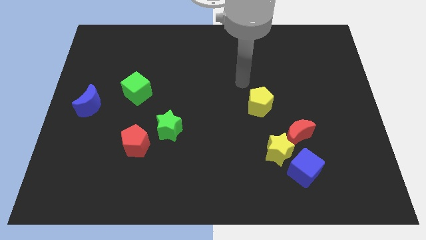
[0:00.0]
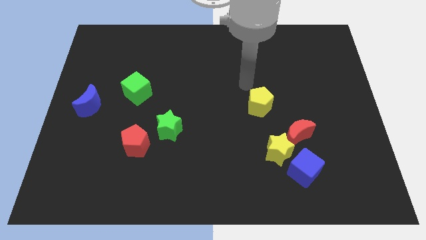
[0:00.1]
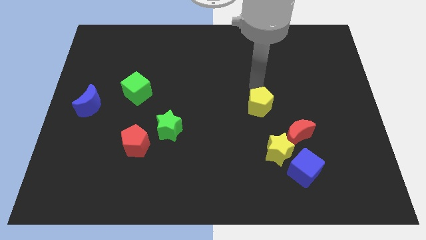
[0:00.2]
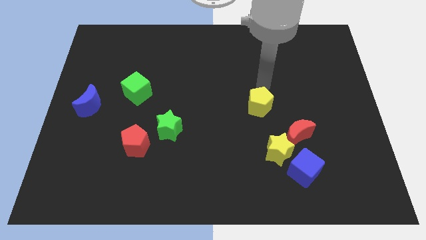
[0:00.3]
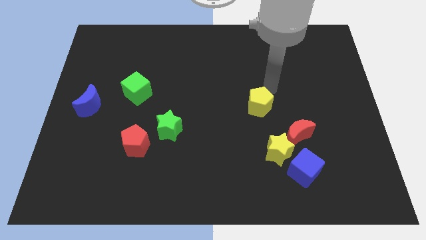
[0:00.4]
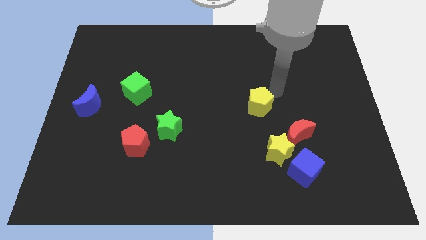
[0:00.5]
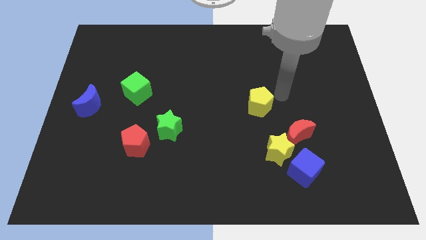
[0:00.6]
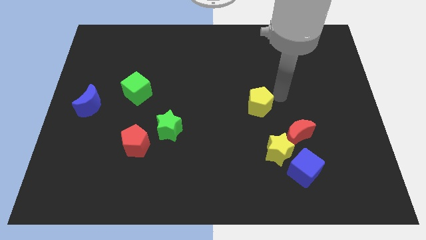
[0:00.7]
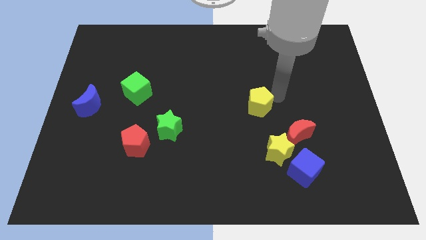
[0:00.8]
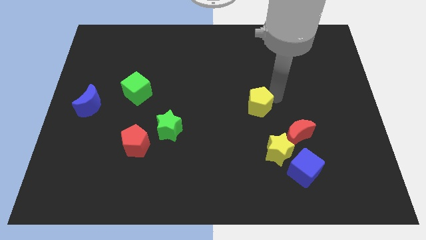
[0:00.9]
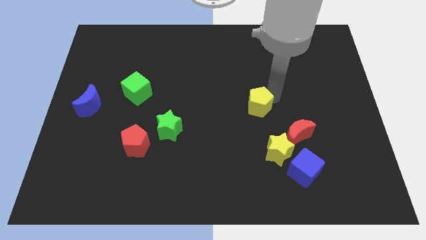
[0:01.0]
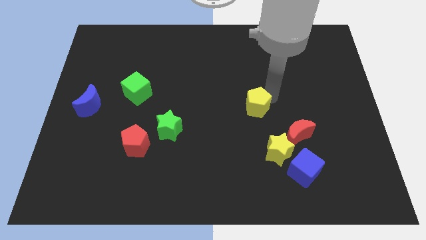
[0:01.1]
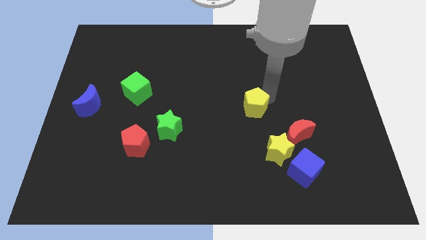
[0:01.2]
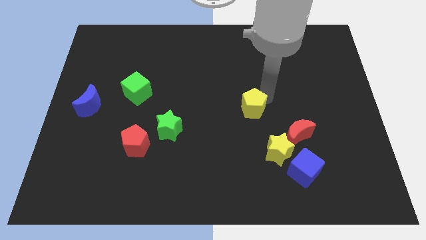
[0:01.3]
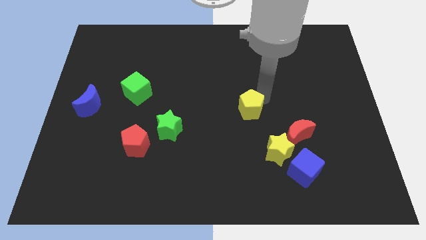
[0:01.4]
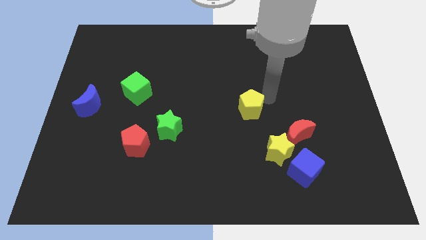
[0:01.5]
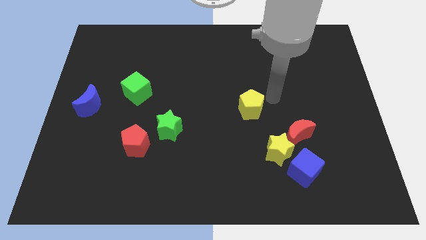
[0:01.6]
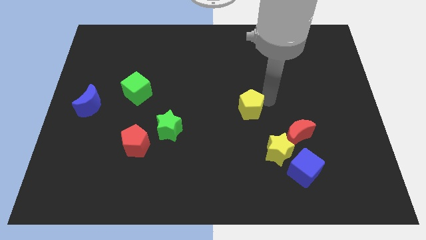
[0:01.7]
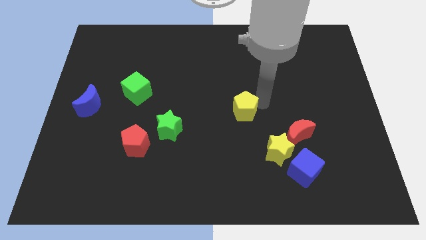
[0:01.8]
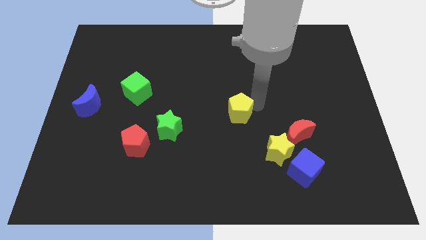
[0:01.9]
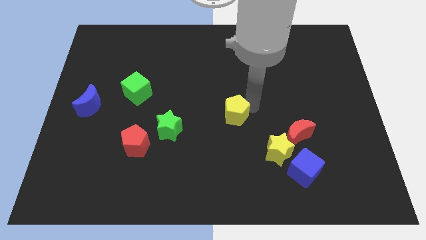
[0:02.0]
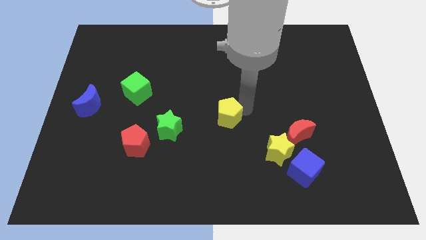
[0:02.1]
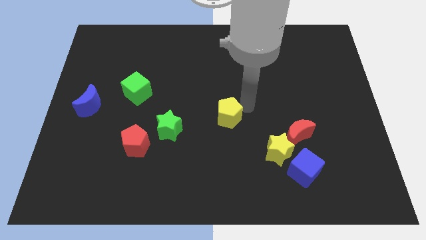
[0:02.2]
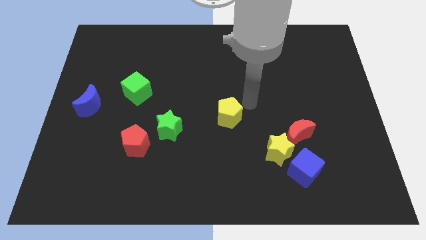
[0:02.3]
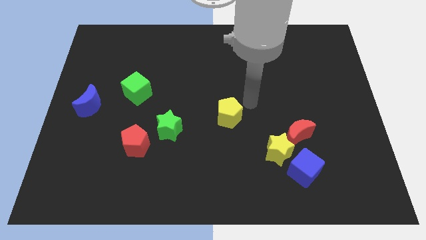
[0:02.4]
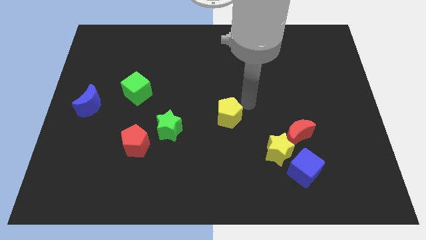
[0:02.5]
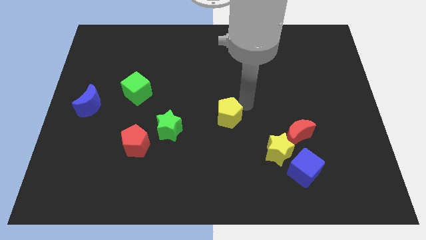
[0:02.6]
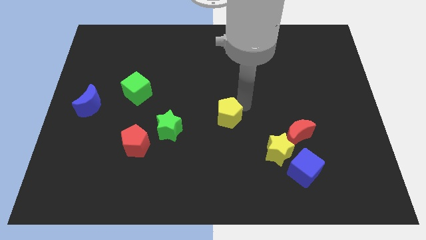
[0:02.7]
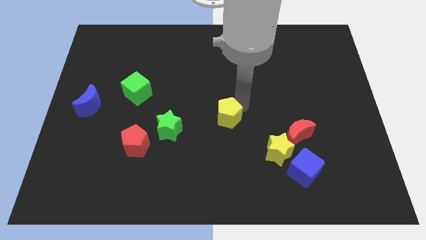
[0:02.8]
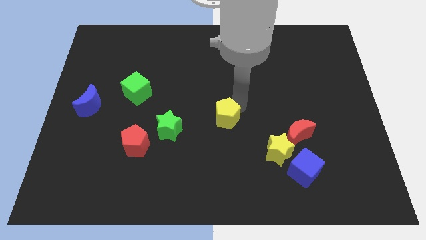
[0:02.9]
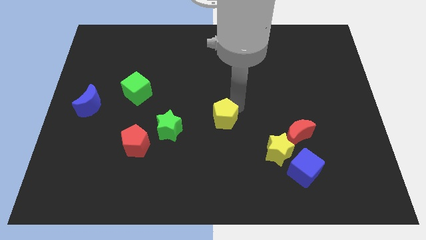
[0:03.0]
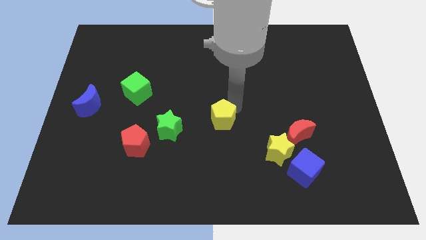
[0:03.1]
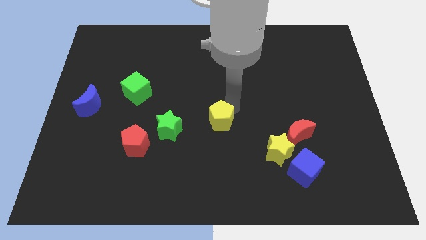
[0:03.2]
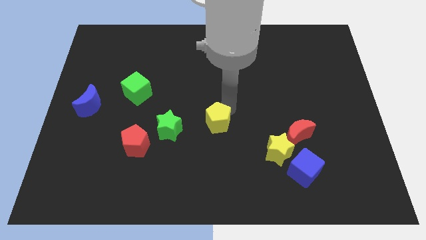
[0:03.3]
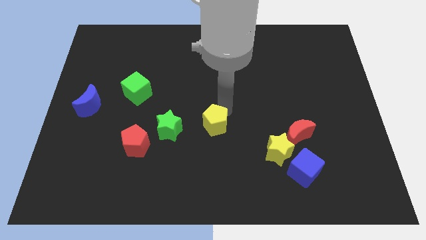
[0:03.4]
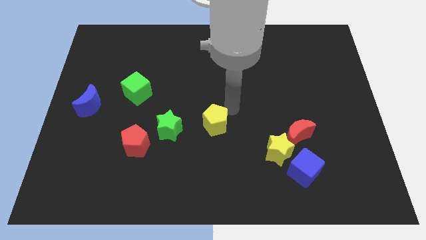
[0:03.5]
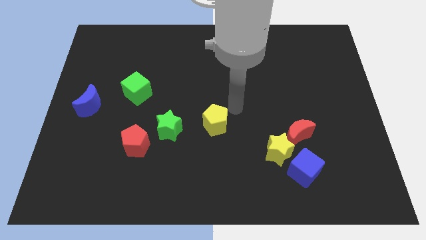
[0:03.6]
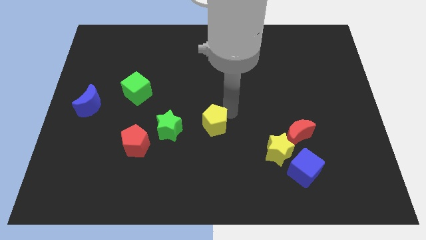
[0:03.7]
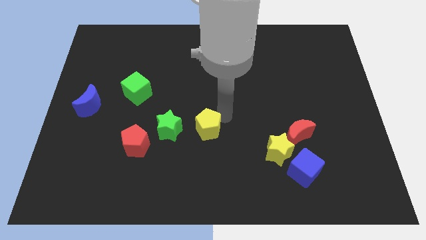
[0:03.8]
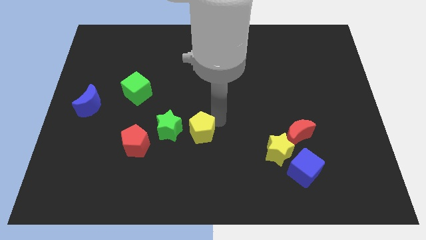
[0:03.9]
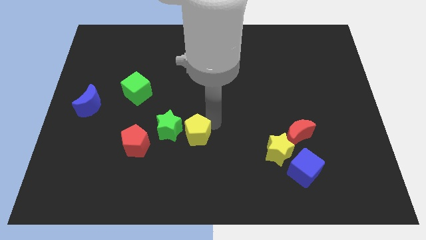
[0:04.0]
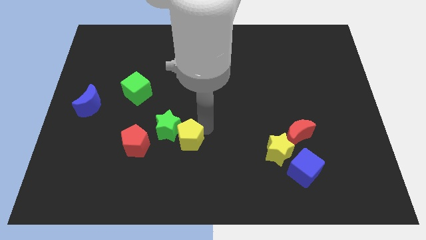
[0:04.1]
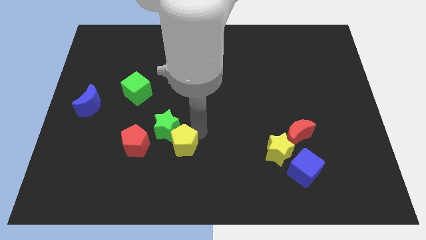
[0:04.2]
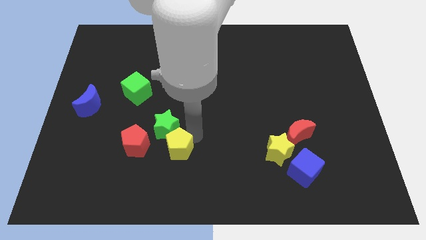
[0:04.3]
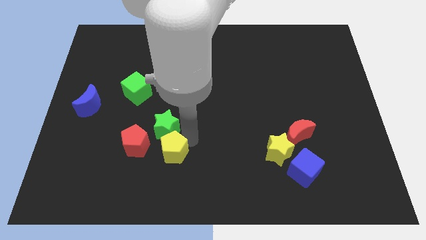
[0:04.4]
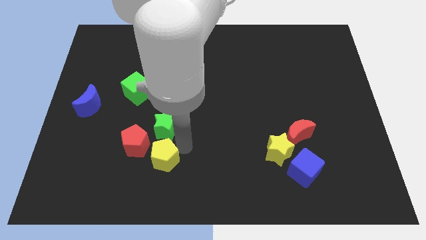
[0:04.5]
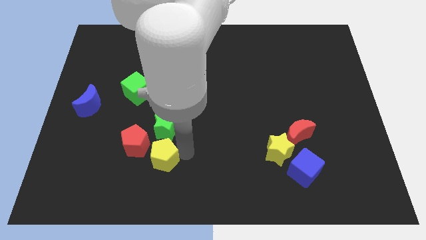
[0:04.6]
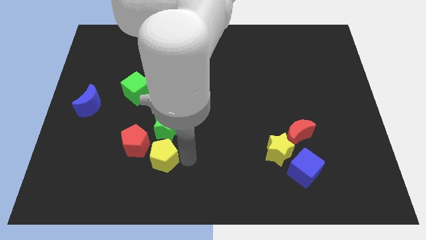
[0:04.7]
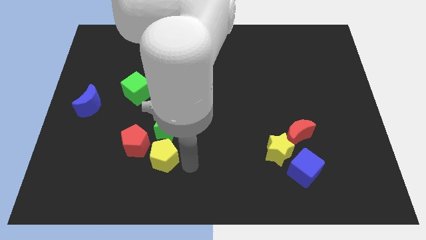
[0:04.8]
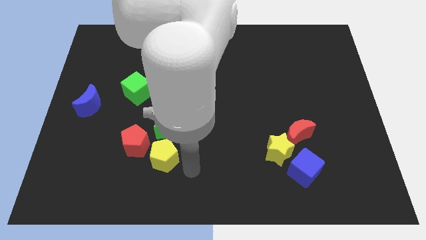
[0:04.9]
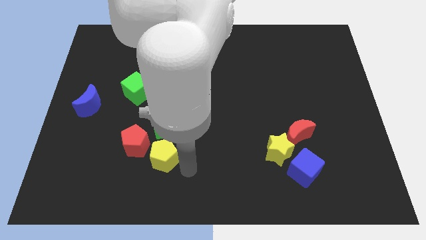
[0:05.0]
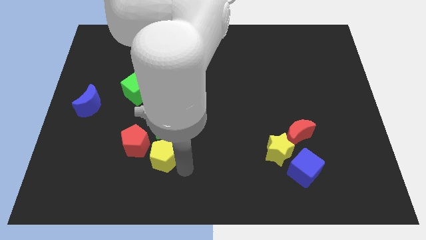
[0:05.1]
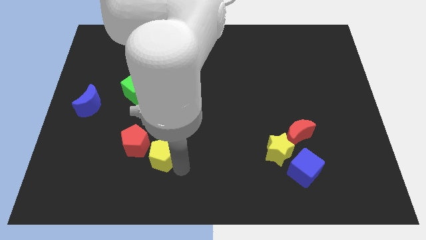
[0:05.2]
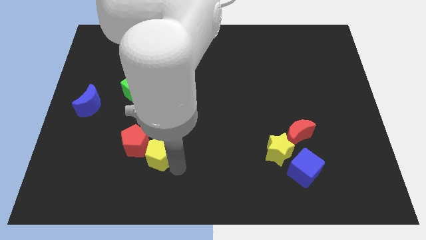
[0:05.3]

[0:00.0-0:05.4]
move the yellow pentagon to the red pentagon

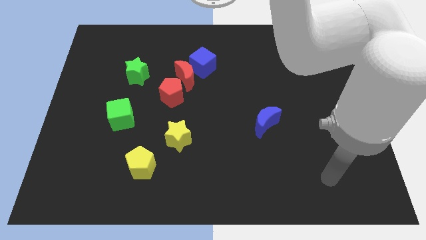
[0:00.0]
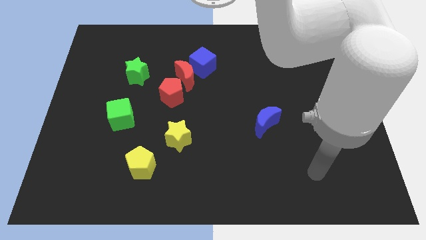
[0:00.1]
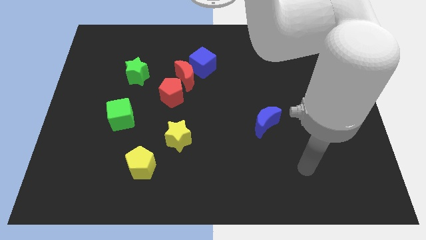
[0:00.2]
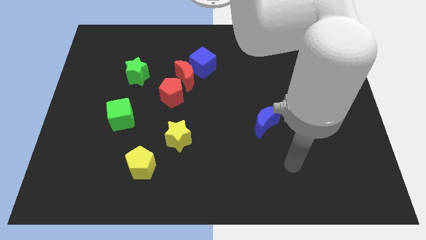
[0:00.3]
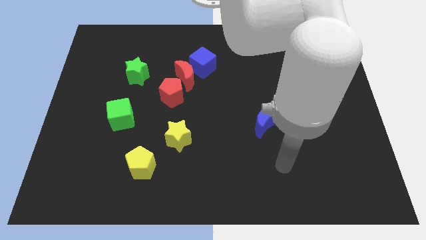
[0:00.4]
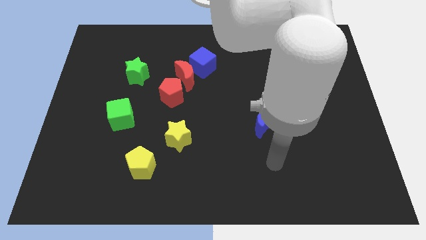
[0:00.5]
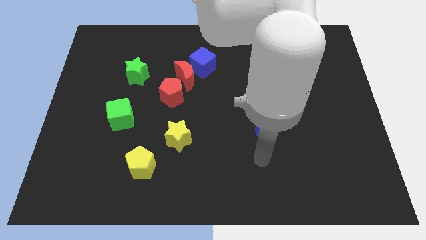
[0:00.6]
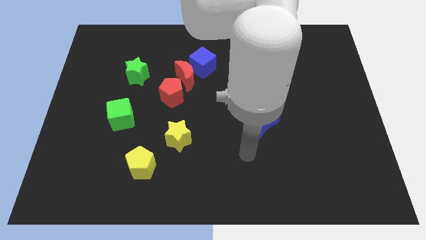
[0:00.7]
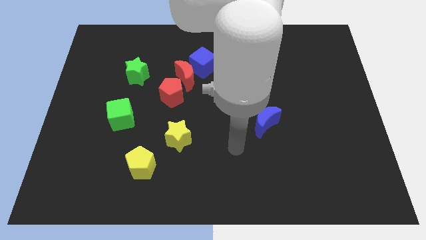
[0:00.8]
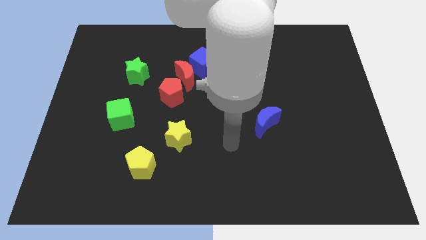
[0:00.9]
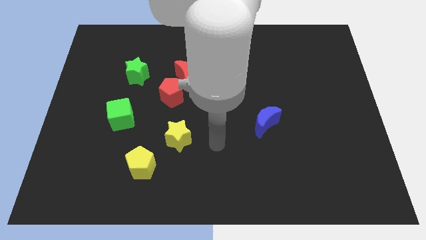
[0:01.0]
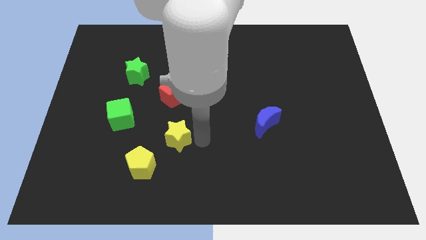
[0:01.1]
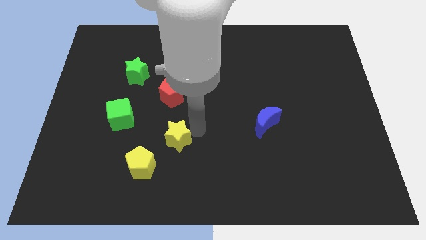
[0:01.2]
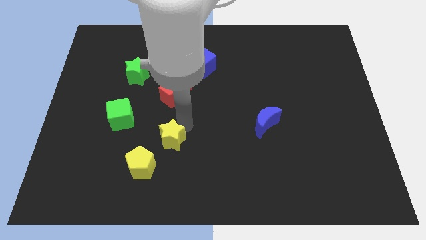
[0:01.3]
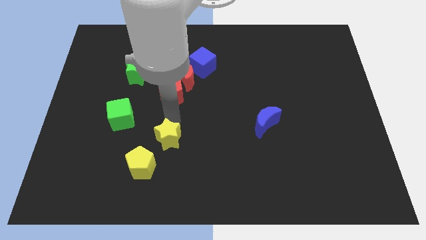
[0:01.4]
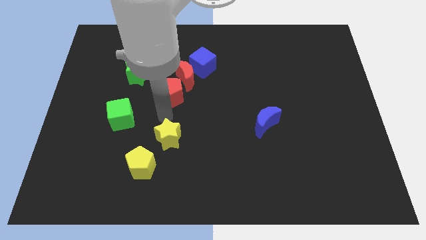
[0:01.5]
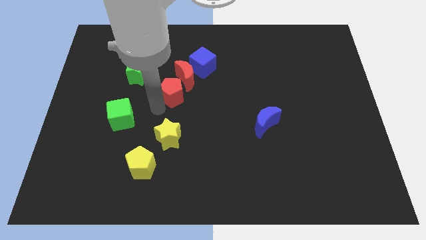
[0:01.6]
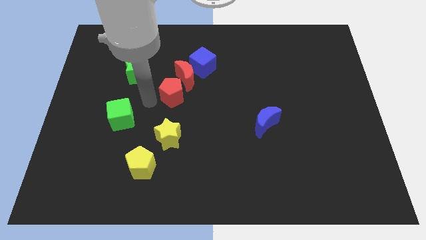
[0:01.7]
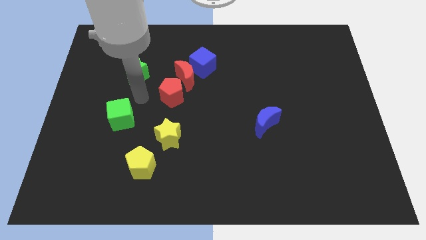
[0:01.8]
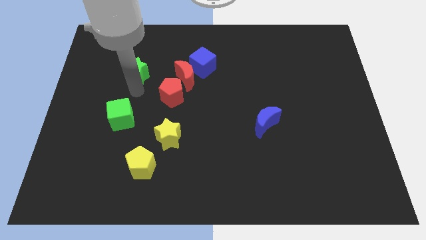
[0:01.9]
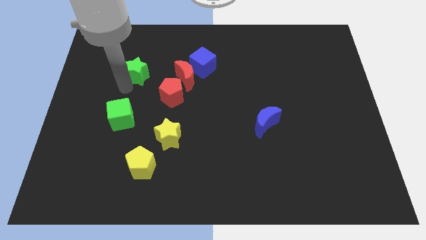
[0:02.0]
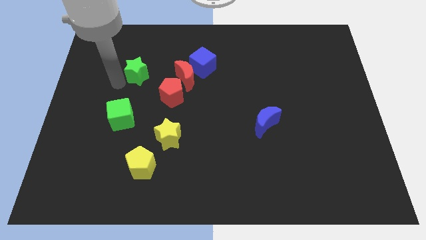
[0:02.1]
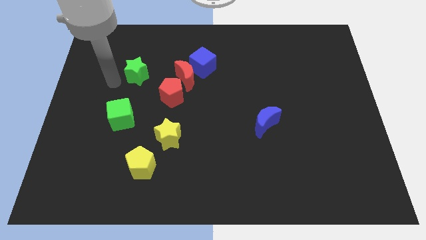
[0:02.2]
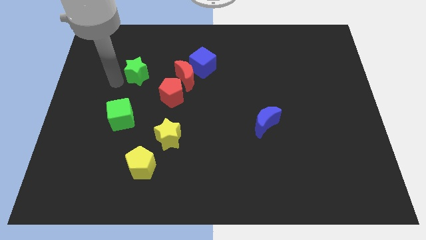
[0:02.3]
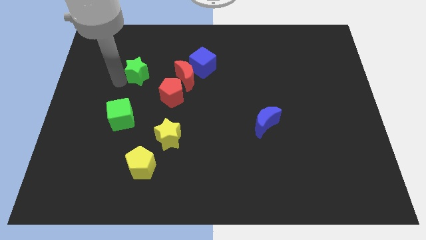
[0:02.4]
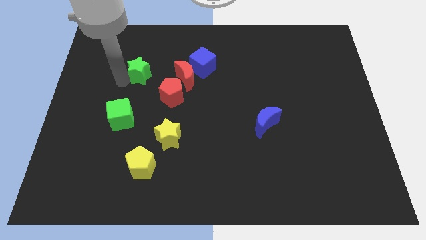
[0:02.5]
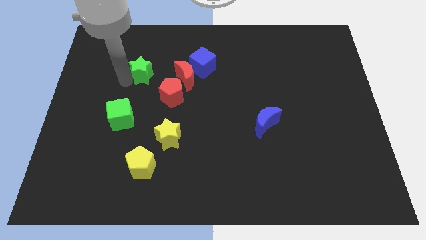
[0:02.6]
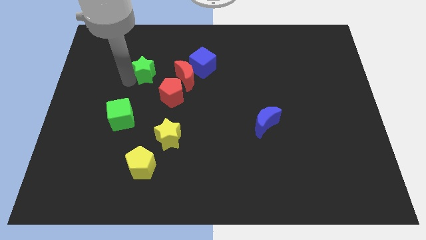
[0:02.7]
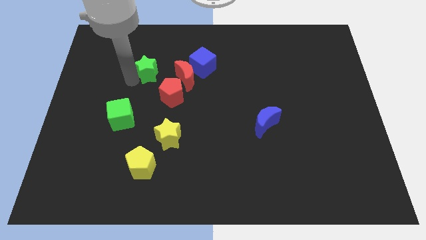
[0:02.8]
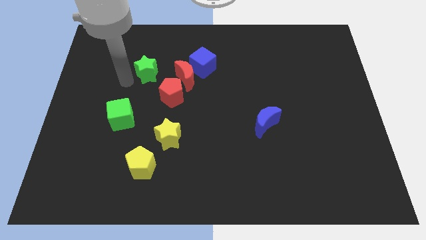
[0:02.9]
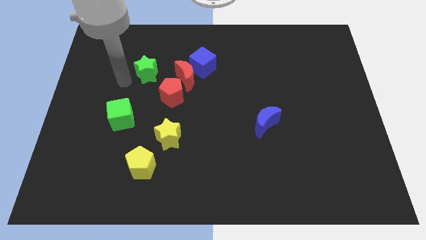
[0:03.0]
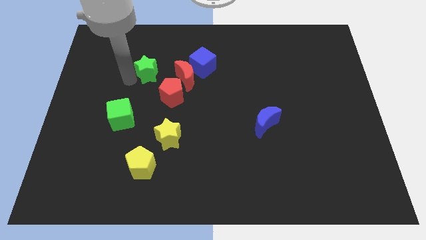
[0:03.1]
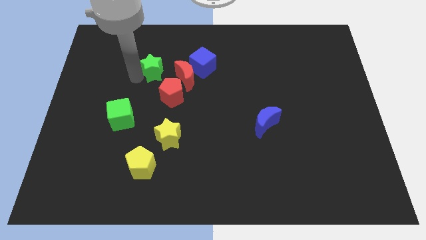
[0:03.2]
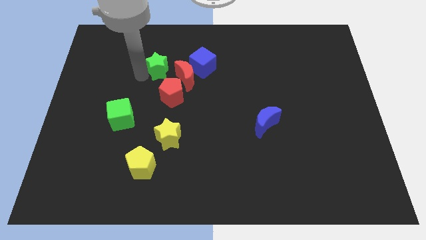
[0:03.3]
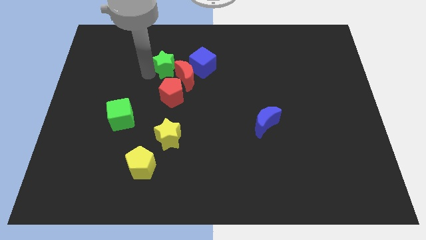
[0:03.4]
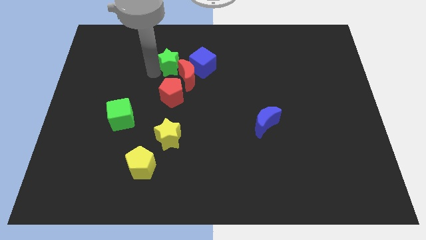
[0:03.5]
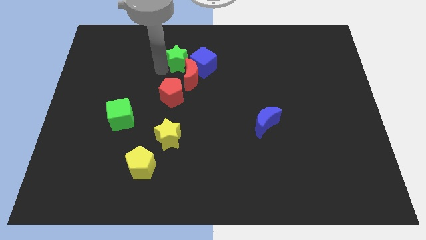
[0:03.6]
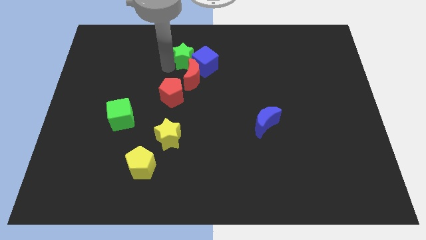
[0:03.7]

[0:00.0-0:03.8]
move the green star next to the blue cube
